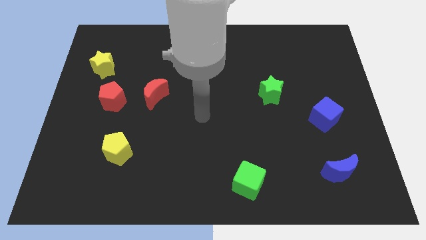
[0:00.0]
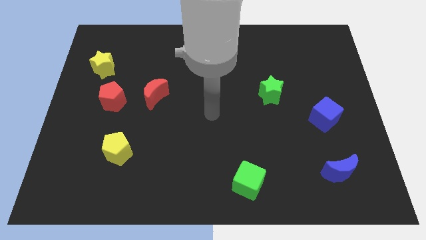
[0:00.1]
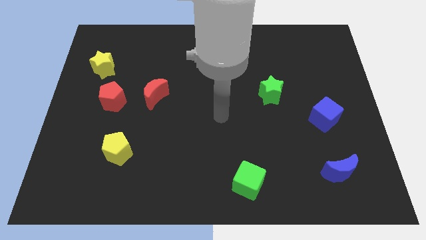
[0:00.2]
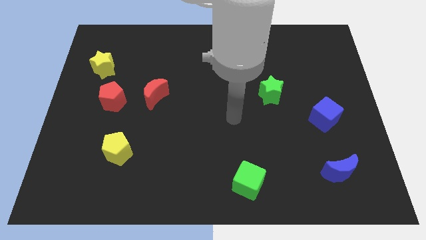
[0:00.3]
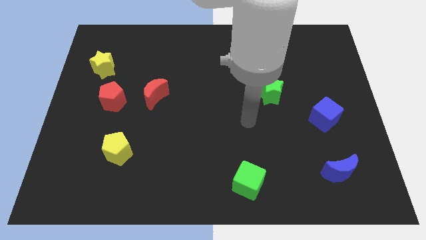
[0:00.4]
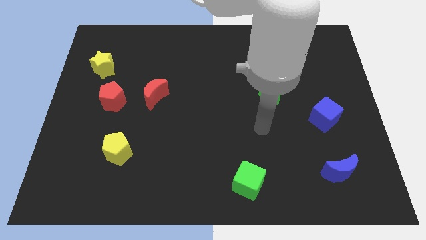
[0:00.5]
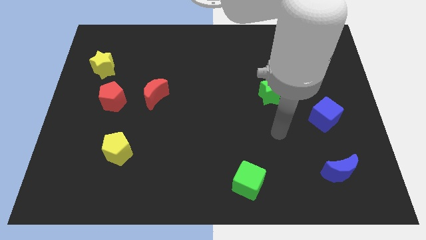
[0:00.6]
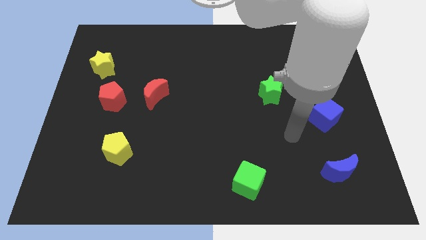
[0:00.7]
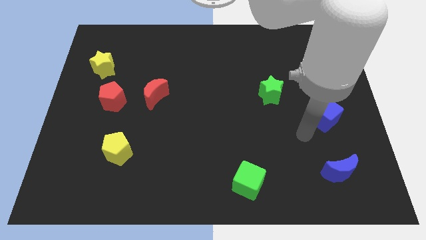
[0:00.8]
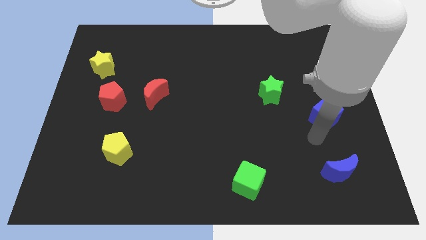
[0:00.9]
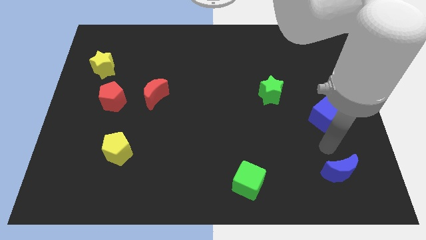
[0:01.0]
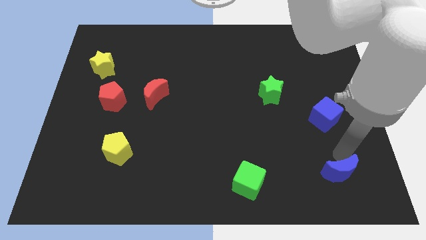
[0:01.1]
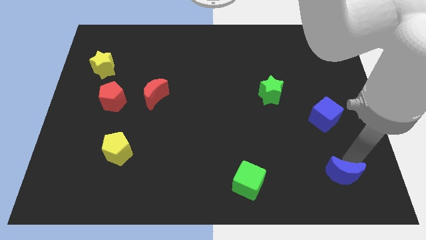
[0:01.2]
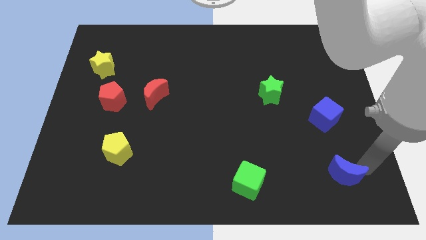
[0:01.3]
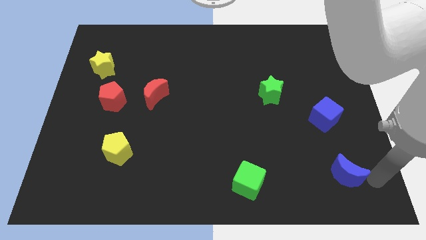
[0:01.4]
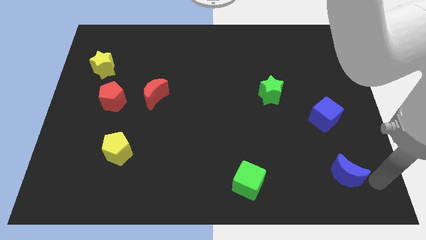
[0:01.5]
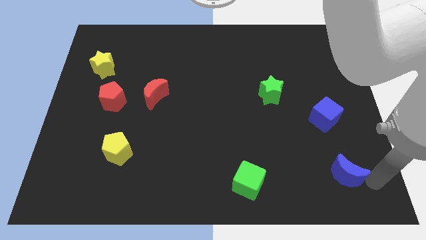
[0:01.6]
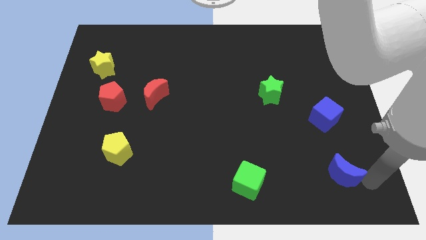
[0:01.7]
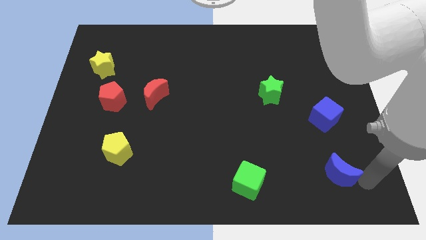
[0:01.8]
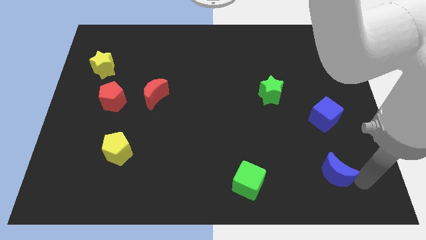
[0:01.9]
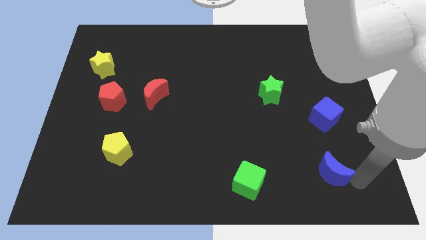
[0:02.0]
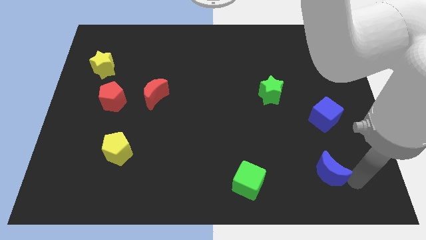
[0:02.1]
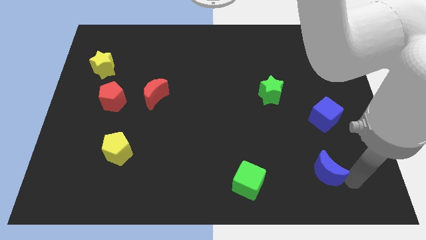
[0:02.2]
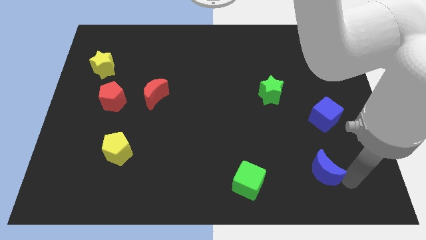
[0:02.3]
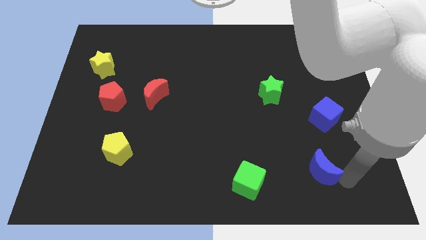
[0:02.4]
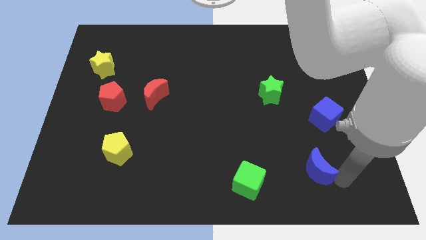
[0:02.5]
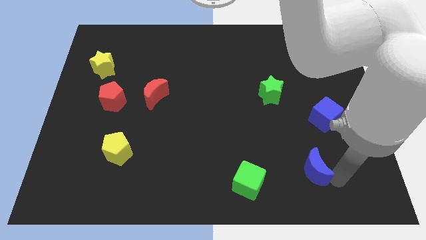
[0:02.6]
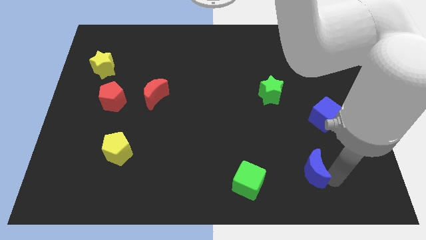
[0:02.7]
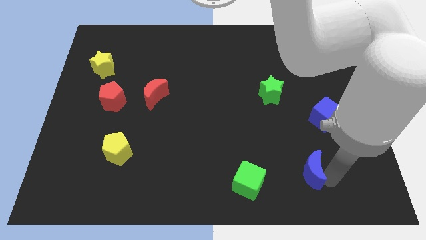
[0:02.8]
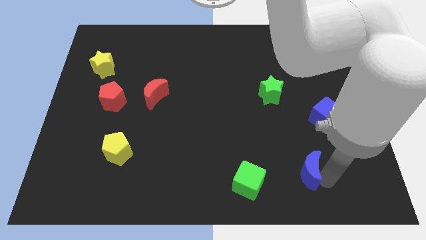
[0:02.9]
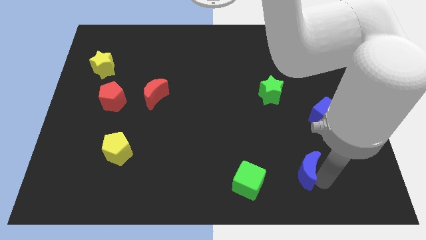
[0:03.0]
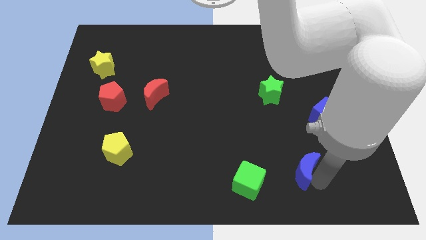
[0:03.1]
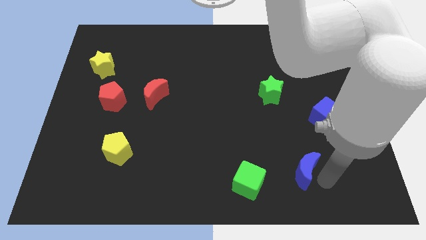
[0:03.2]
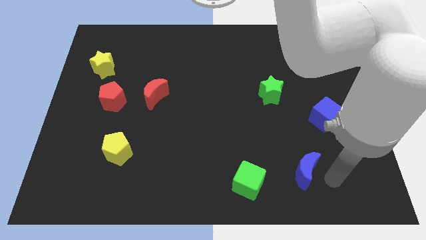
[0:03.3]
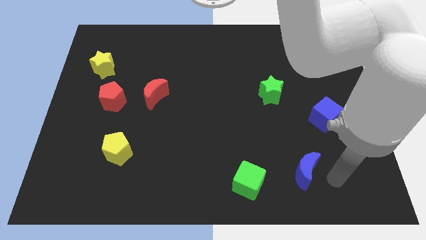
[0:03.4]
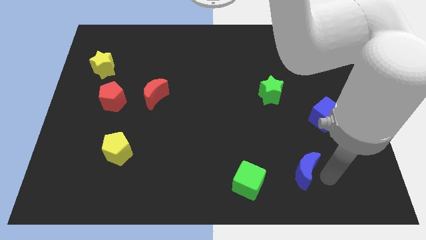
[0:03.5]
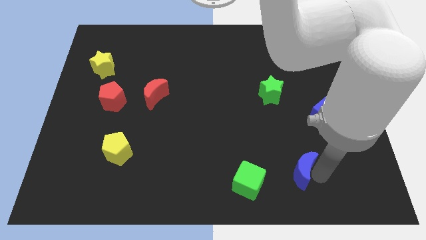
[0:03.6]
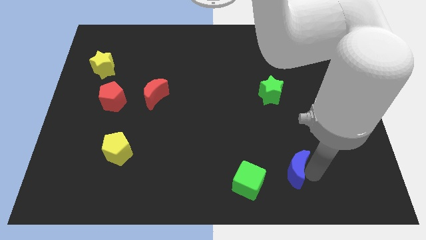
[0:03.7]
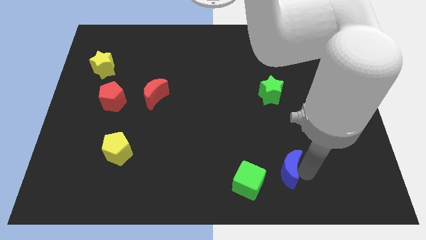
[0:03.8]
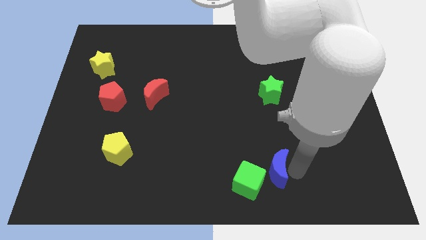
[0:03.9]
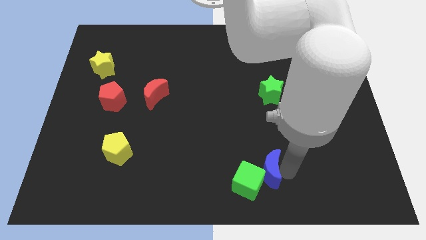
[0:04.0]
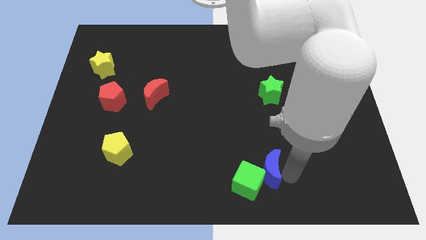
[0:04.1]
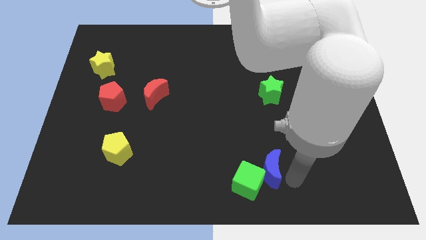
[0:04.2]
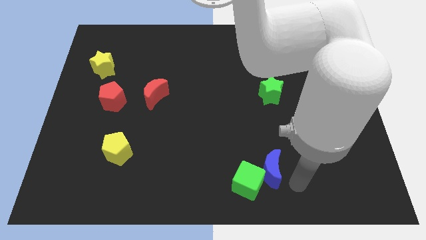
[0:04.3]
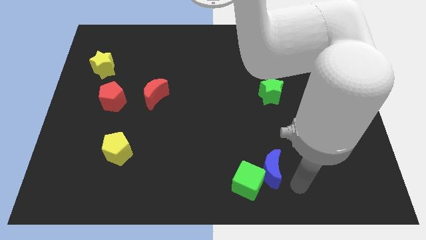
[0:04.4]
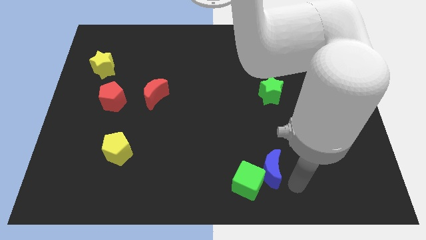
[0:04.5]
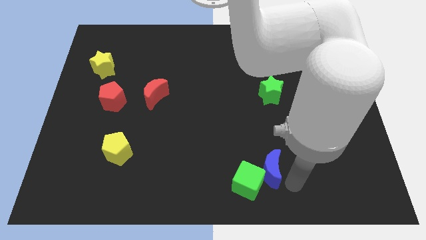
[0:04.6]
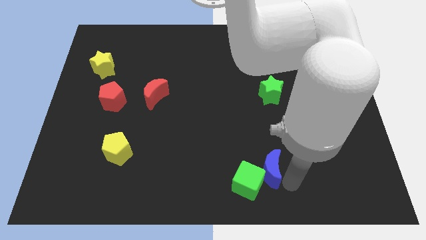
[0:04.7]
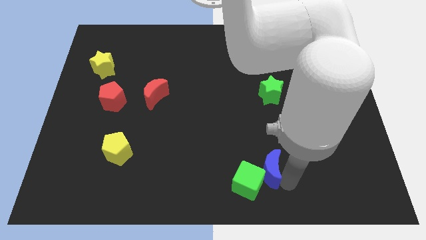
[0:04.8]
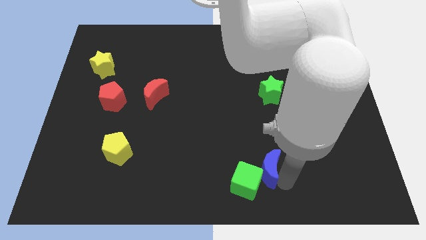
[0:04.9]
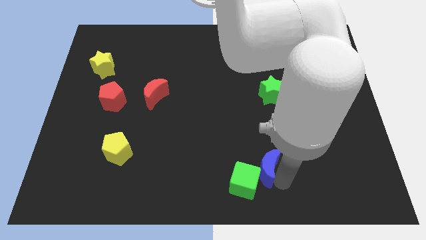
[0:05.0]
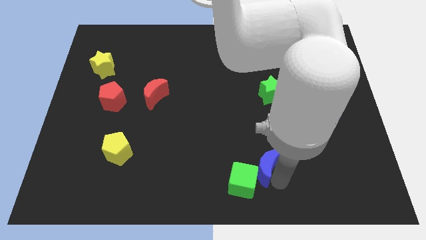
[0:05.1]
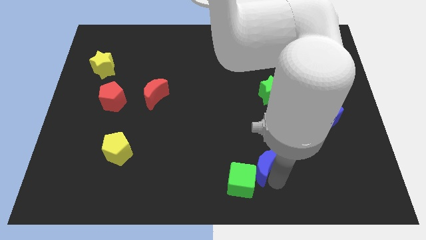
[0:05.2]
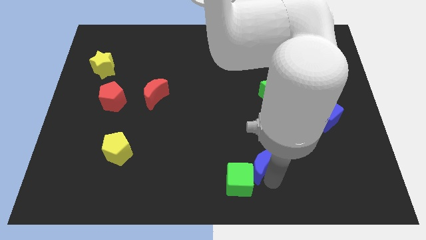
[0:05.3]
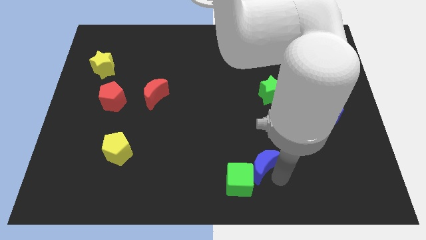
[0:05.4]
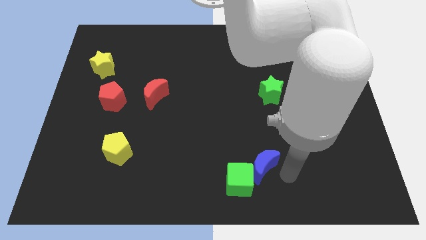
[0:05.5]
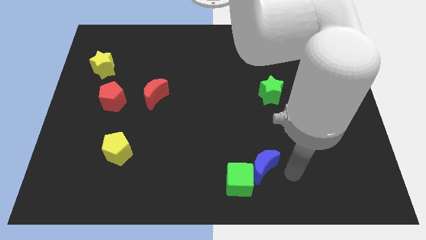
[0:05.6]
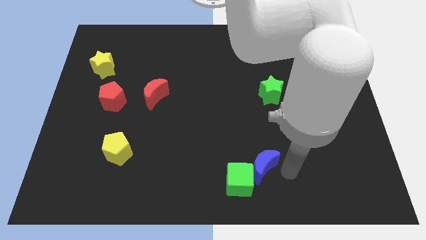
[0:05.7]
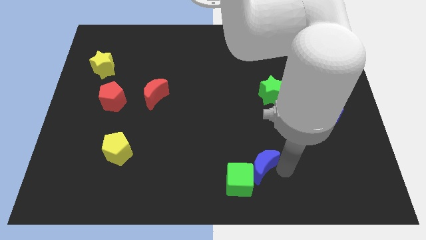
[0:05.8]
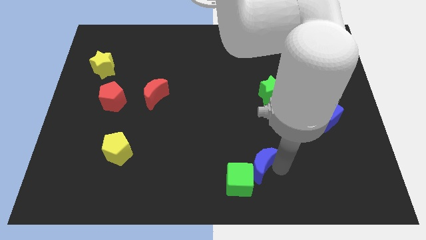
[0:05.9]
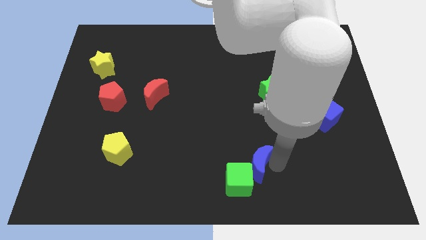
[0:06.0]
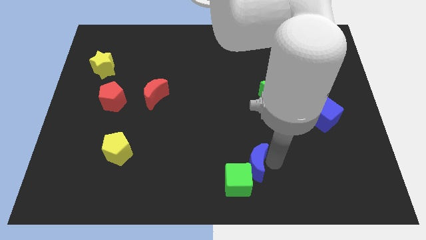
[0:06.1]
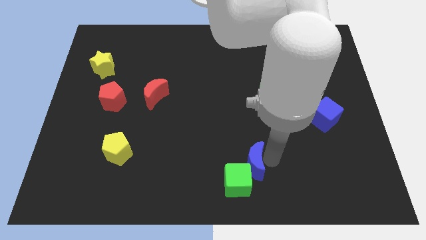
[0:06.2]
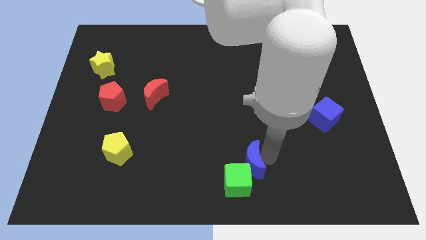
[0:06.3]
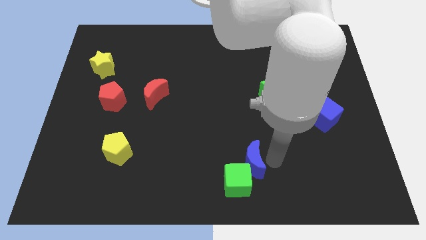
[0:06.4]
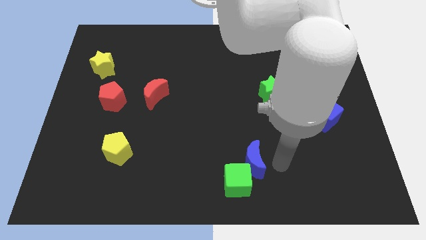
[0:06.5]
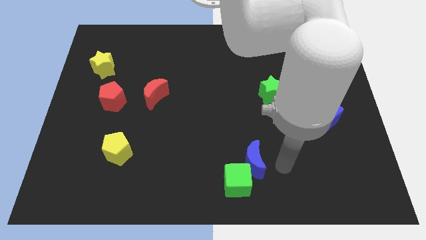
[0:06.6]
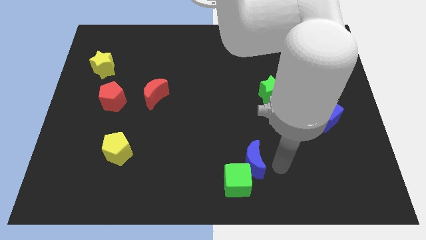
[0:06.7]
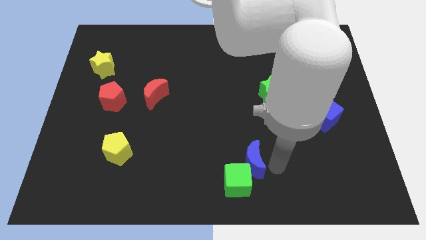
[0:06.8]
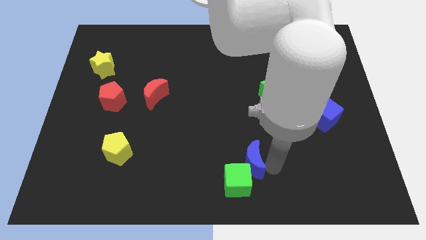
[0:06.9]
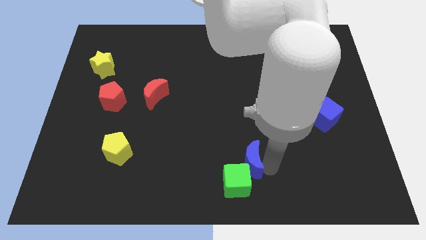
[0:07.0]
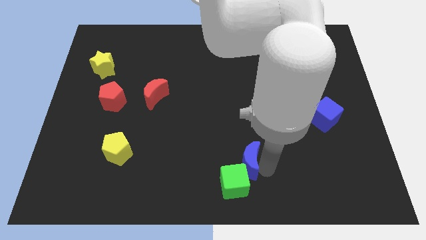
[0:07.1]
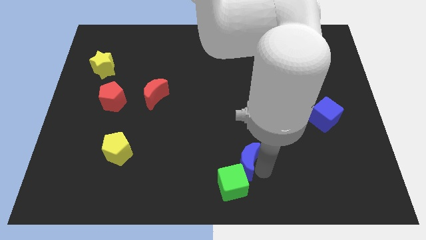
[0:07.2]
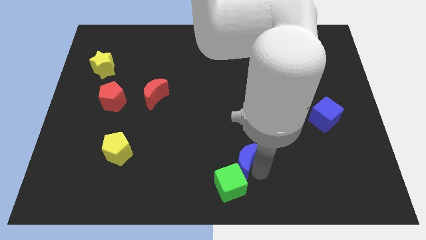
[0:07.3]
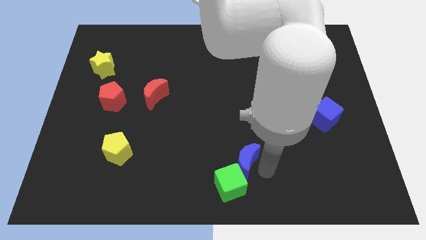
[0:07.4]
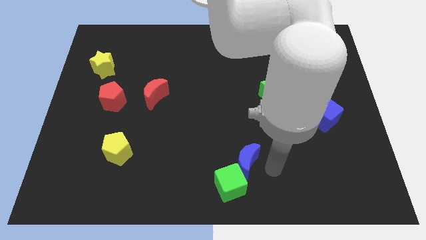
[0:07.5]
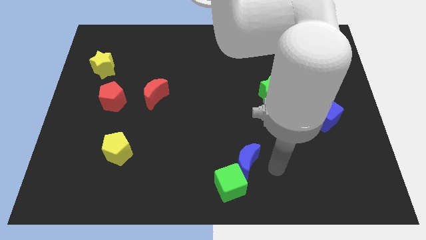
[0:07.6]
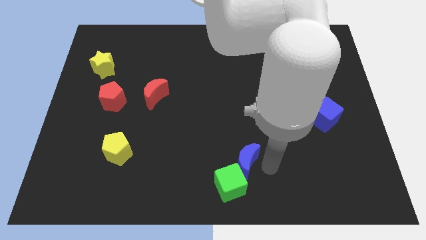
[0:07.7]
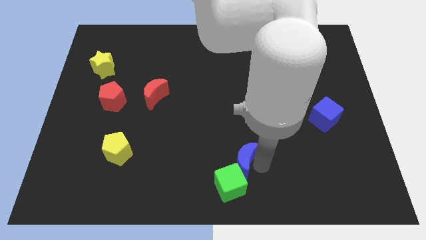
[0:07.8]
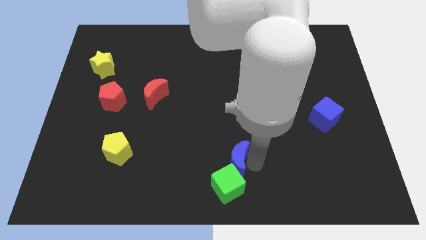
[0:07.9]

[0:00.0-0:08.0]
push the blue moon left
